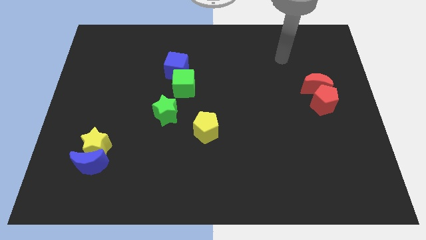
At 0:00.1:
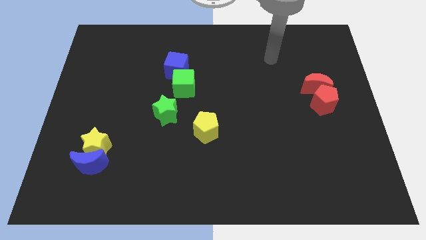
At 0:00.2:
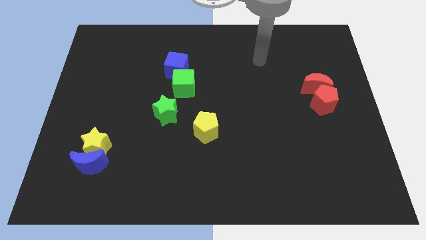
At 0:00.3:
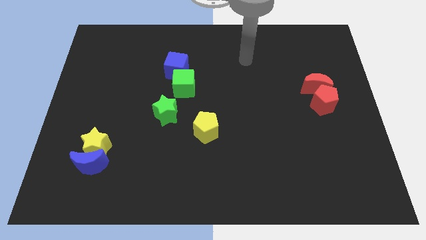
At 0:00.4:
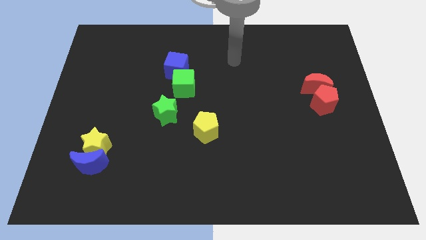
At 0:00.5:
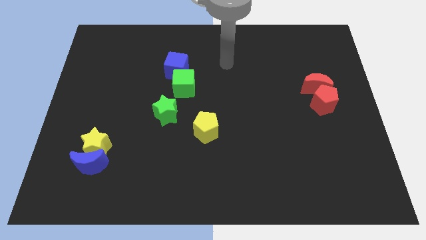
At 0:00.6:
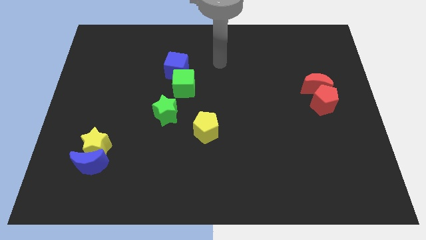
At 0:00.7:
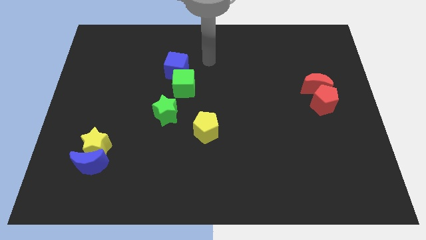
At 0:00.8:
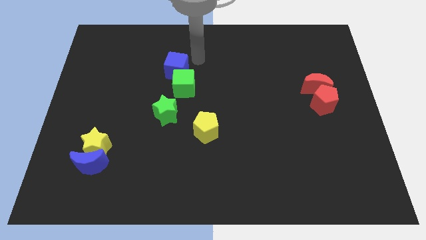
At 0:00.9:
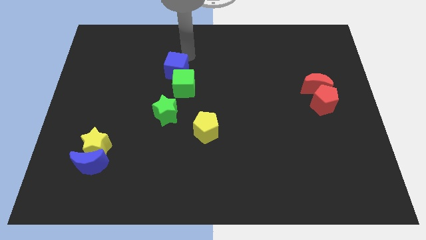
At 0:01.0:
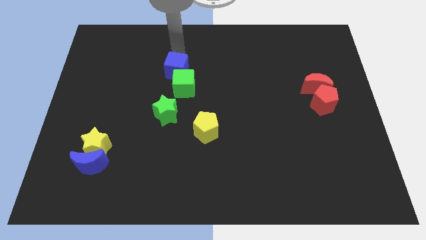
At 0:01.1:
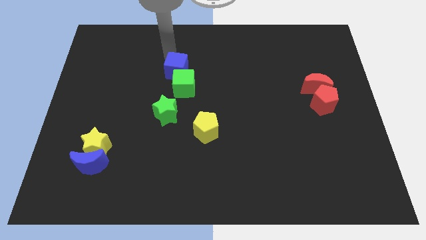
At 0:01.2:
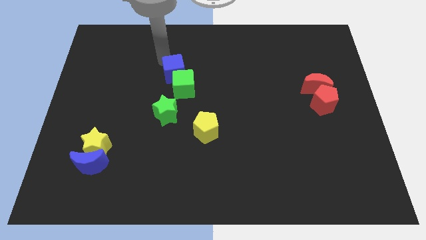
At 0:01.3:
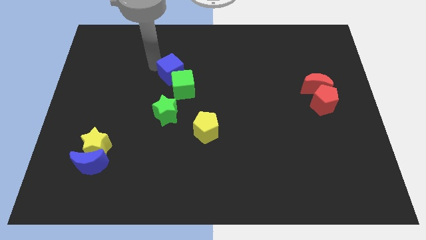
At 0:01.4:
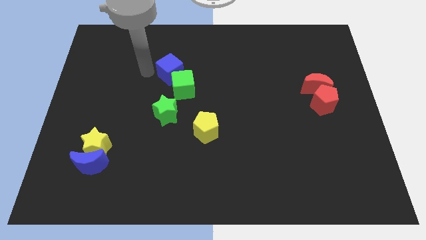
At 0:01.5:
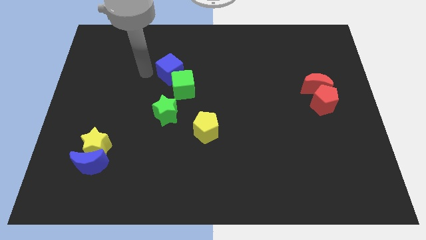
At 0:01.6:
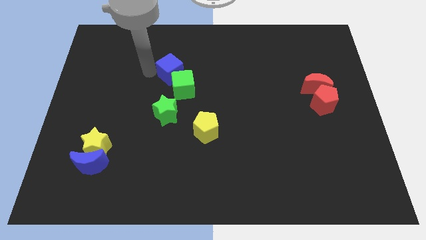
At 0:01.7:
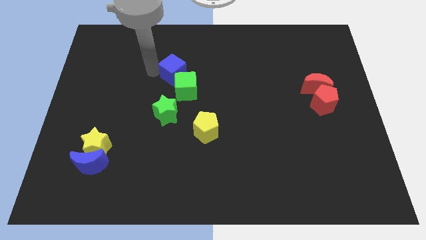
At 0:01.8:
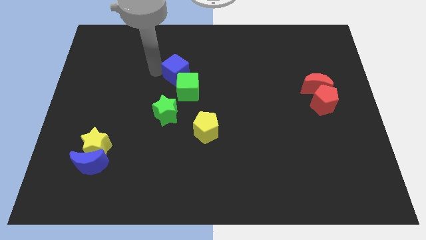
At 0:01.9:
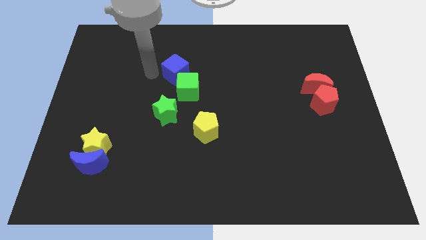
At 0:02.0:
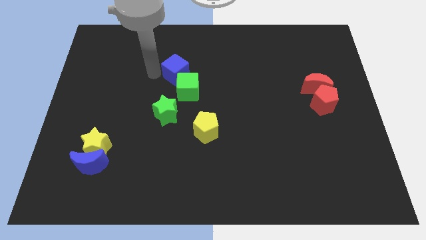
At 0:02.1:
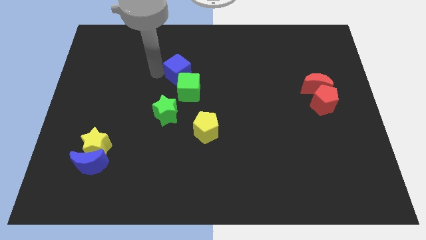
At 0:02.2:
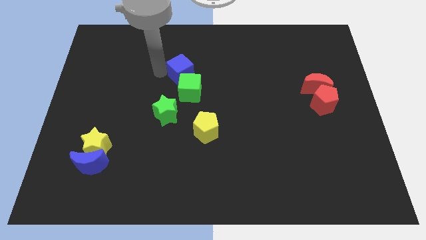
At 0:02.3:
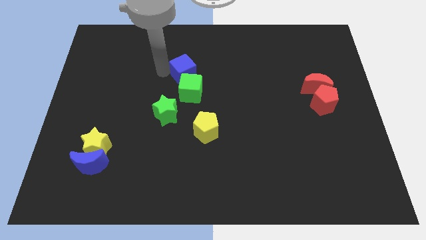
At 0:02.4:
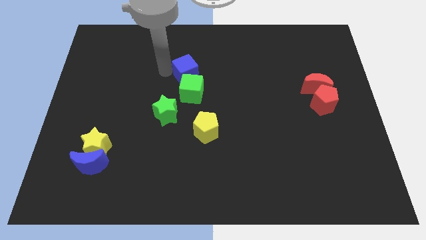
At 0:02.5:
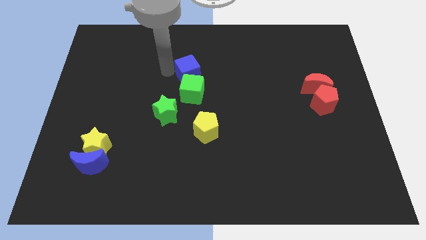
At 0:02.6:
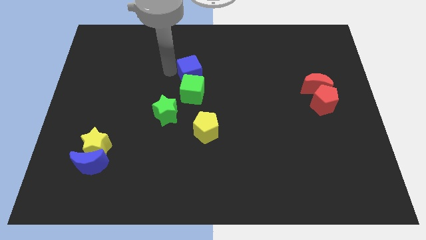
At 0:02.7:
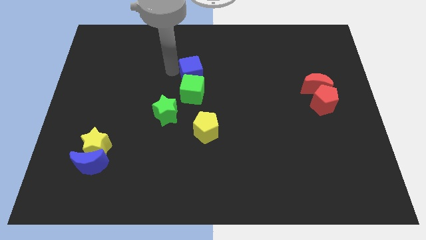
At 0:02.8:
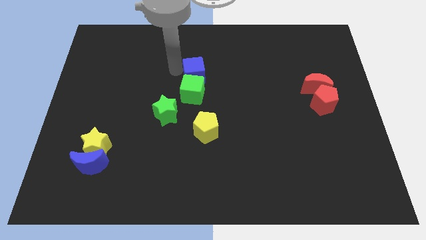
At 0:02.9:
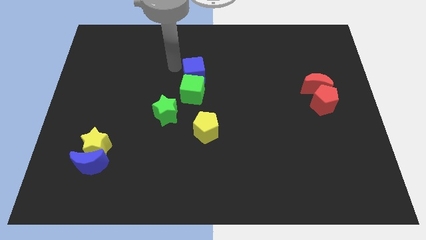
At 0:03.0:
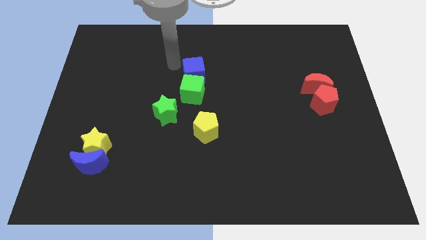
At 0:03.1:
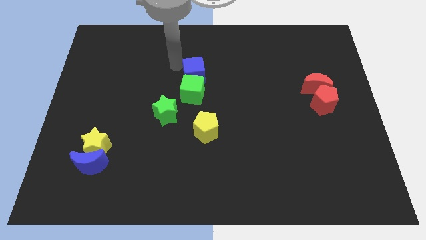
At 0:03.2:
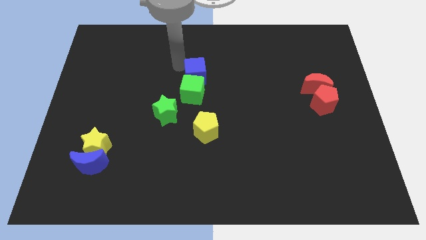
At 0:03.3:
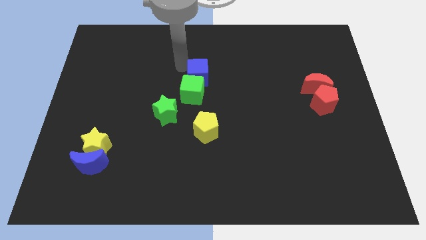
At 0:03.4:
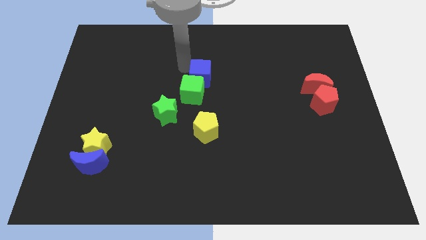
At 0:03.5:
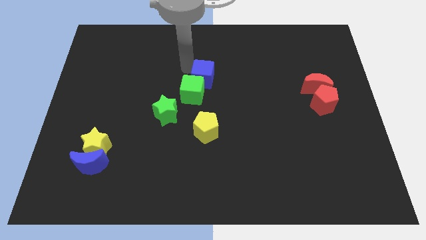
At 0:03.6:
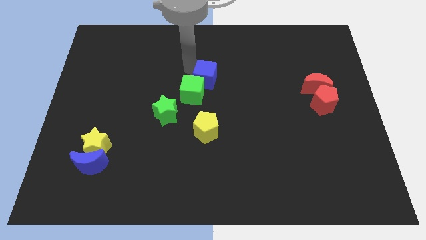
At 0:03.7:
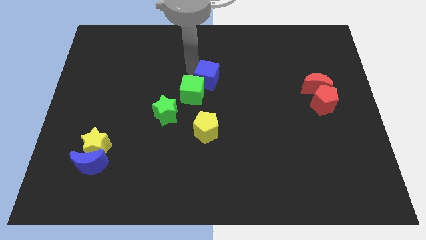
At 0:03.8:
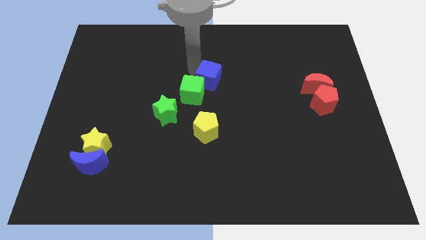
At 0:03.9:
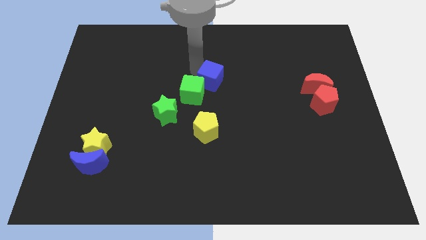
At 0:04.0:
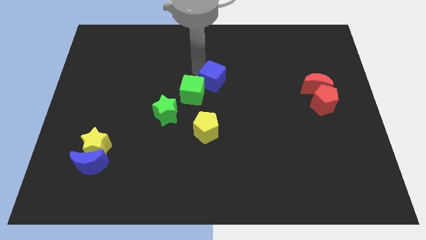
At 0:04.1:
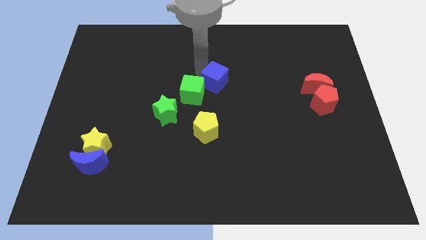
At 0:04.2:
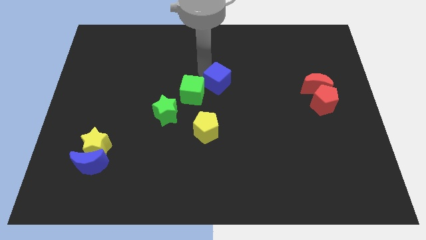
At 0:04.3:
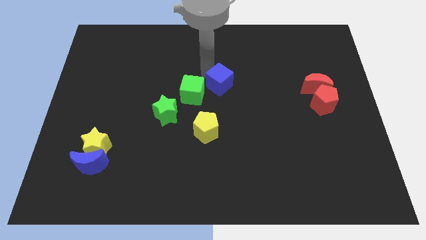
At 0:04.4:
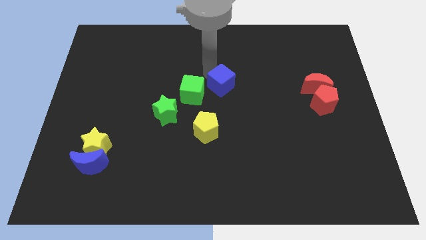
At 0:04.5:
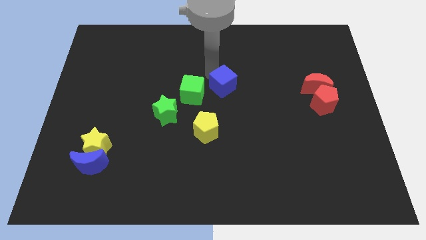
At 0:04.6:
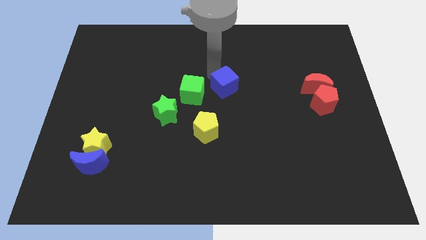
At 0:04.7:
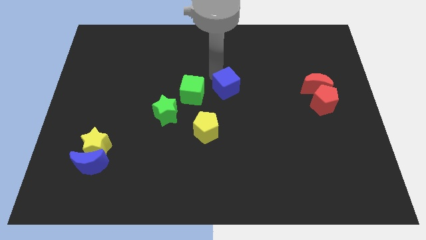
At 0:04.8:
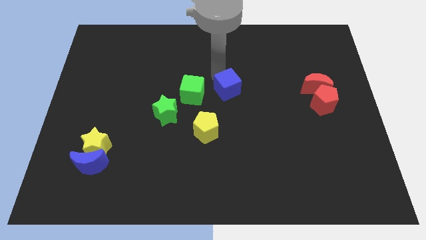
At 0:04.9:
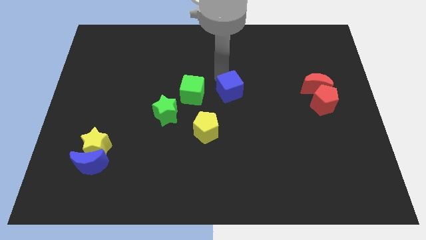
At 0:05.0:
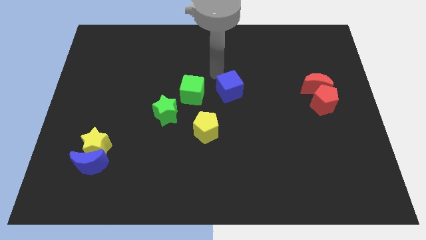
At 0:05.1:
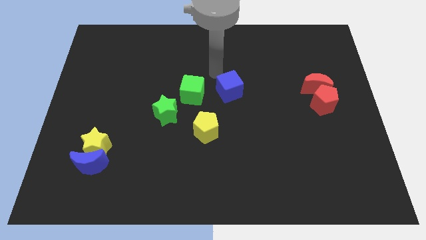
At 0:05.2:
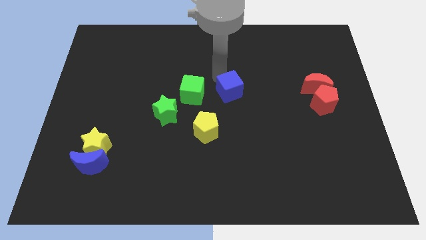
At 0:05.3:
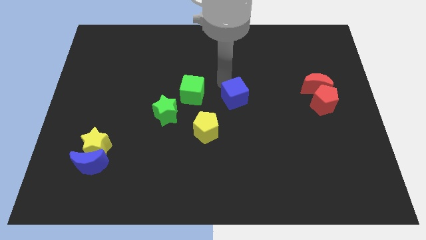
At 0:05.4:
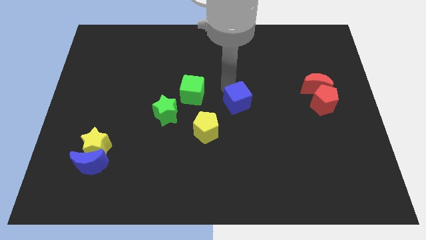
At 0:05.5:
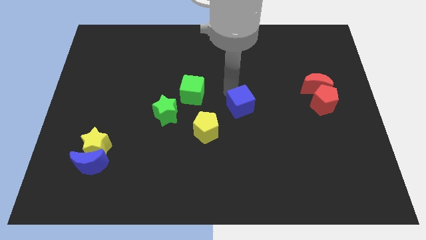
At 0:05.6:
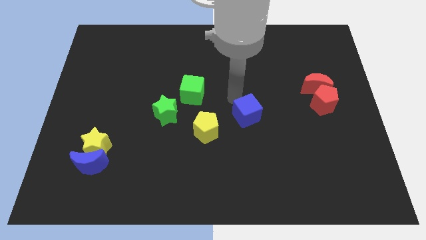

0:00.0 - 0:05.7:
push the blue cube down and to the right diagonally

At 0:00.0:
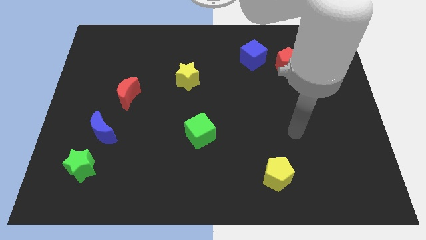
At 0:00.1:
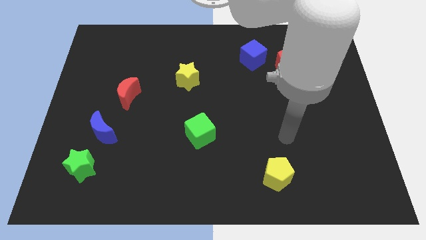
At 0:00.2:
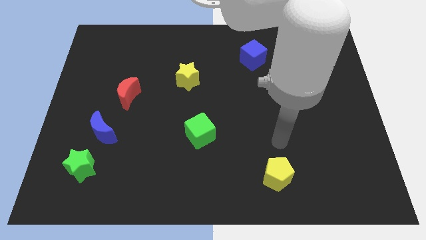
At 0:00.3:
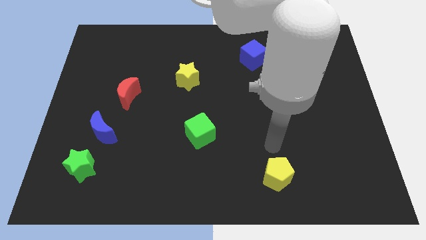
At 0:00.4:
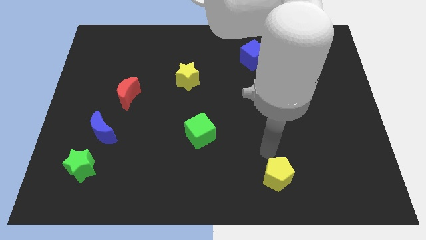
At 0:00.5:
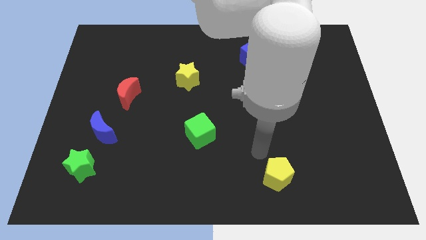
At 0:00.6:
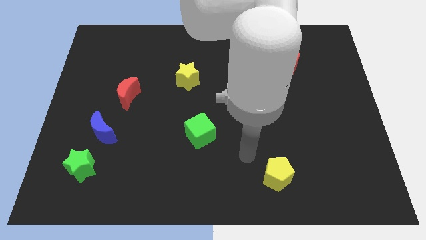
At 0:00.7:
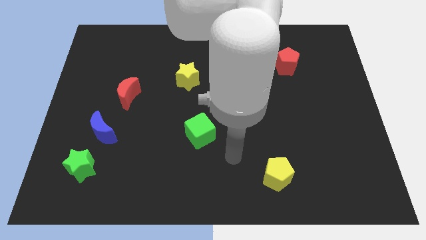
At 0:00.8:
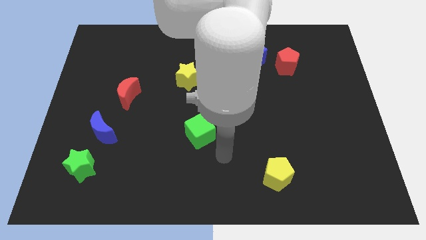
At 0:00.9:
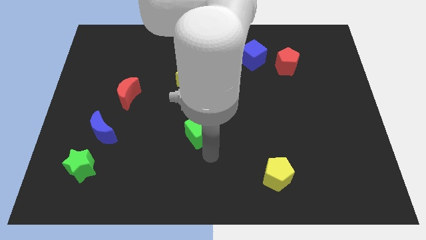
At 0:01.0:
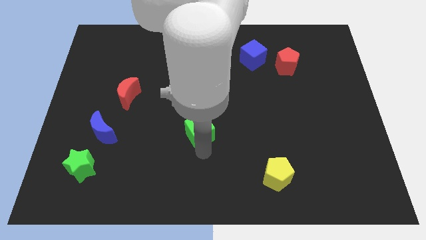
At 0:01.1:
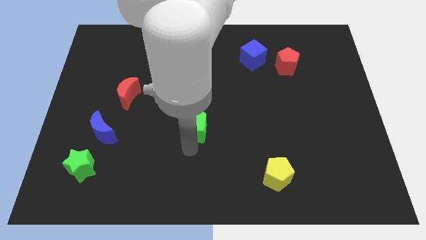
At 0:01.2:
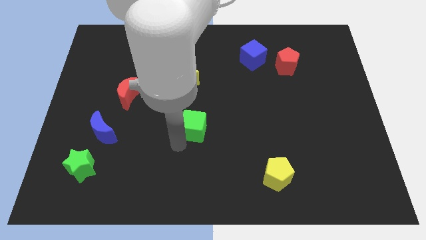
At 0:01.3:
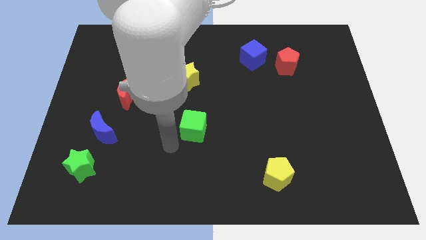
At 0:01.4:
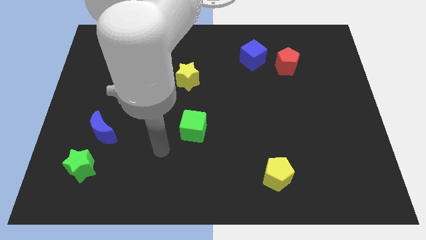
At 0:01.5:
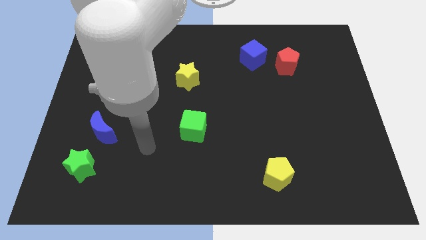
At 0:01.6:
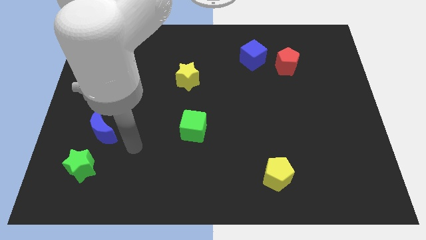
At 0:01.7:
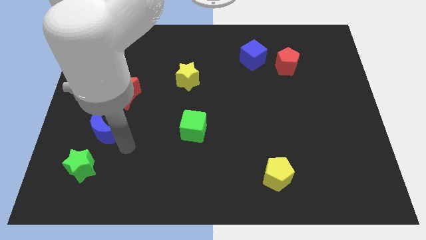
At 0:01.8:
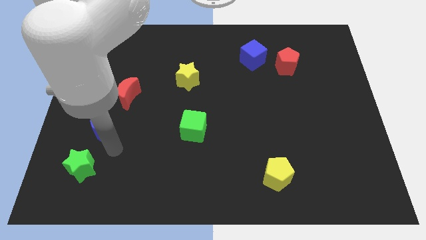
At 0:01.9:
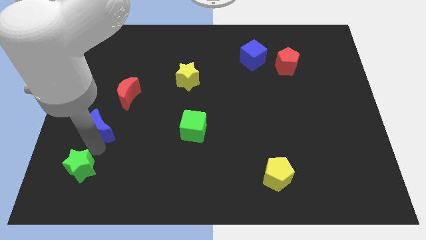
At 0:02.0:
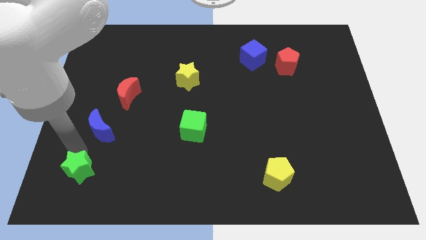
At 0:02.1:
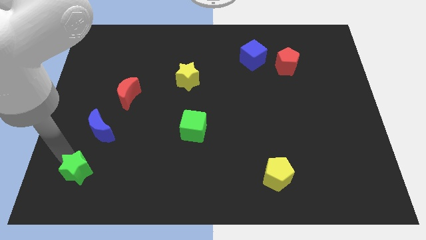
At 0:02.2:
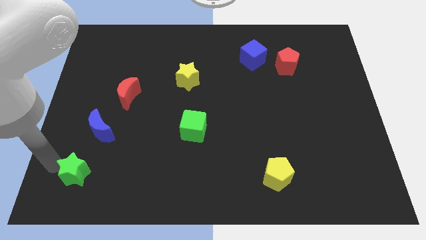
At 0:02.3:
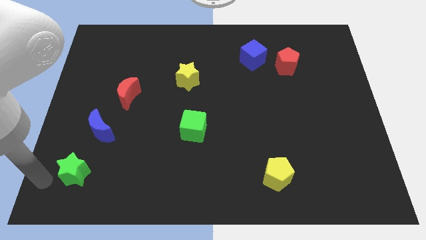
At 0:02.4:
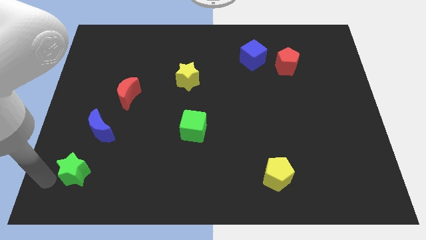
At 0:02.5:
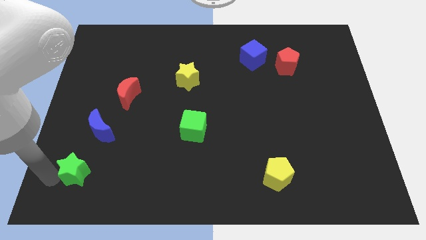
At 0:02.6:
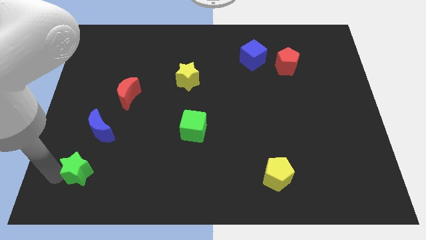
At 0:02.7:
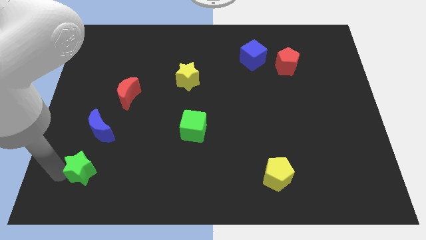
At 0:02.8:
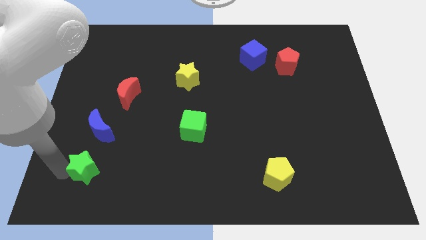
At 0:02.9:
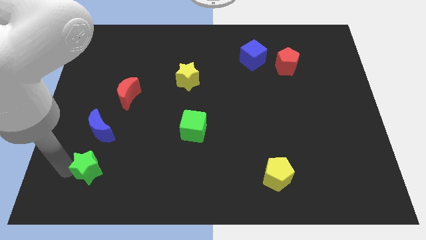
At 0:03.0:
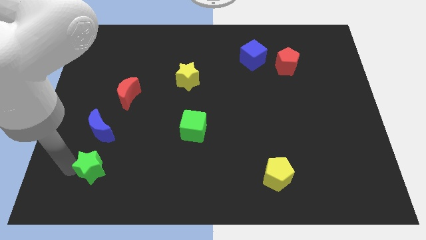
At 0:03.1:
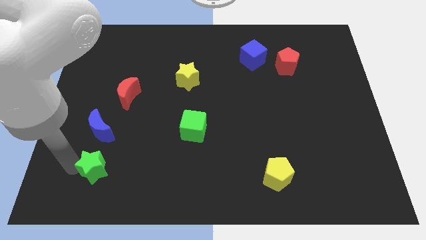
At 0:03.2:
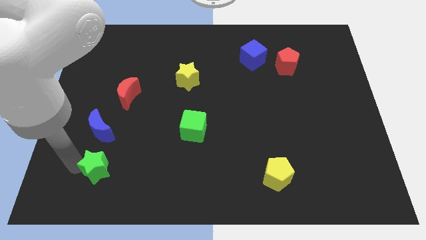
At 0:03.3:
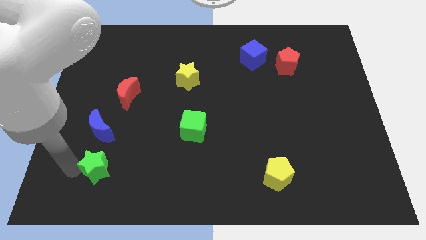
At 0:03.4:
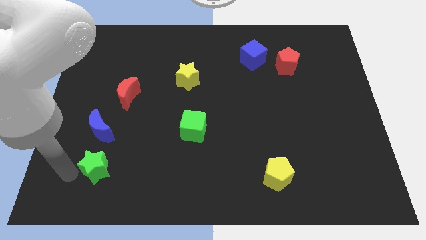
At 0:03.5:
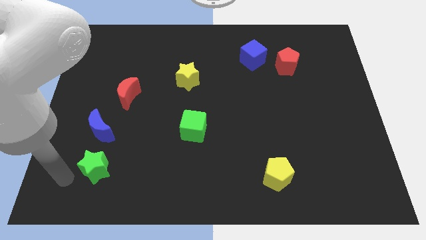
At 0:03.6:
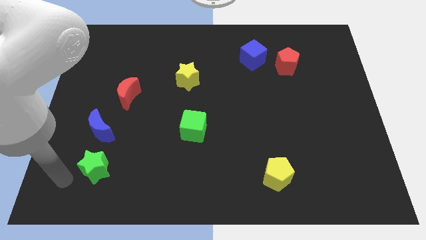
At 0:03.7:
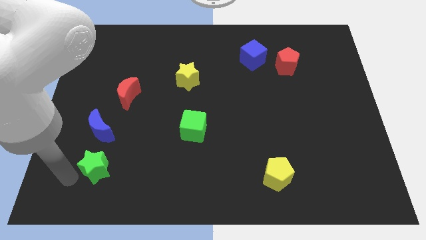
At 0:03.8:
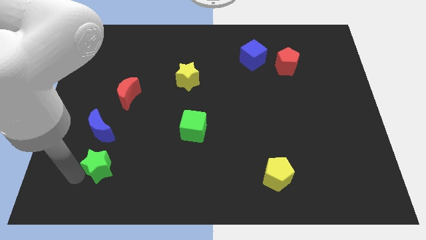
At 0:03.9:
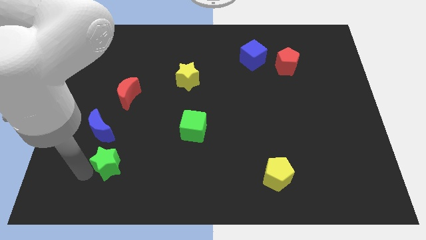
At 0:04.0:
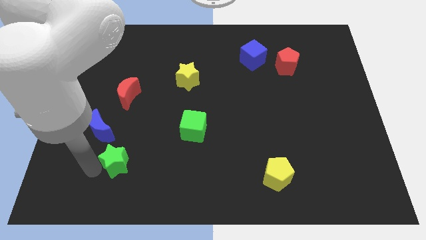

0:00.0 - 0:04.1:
slightly push the green star right
